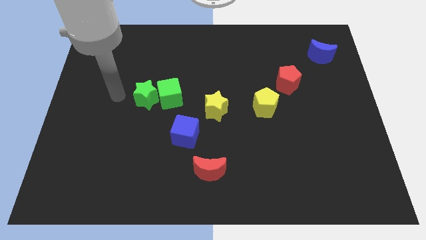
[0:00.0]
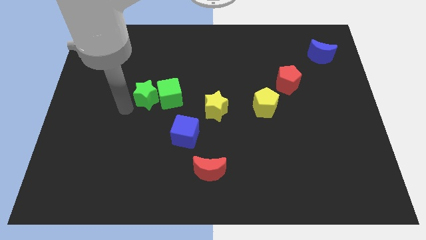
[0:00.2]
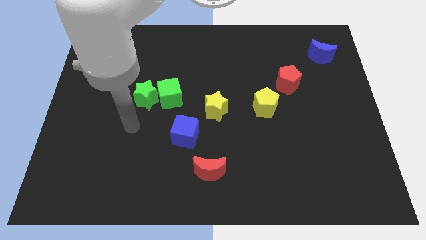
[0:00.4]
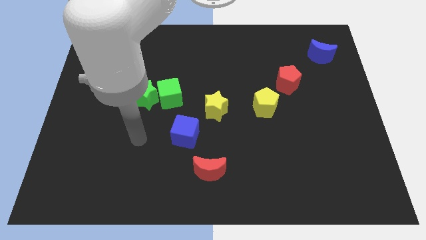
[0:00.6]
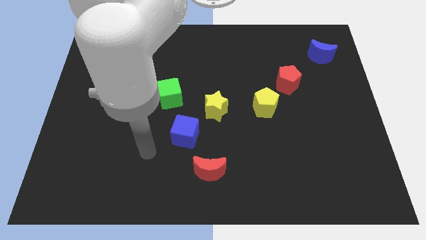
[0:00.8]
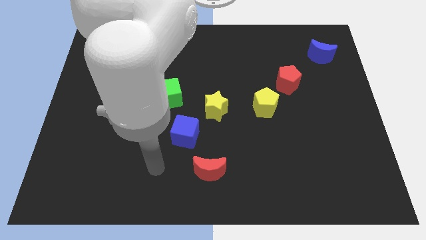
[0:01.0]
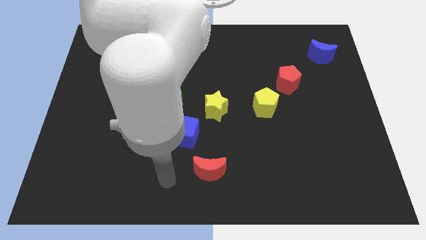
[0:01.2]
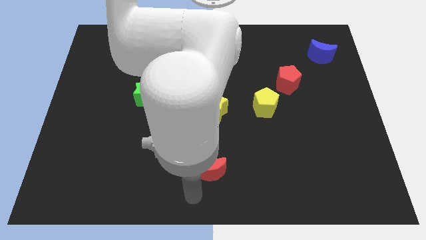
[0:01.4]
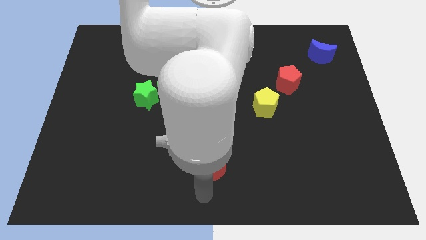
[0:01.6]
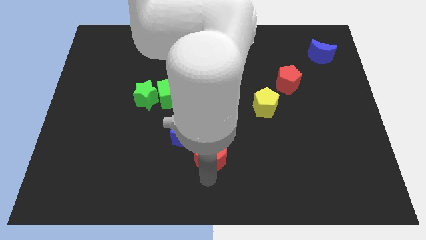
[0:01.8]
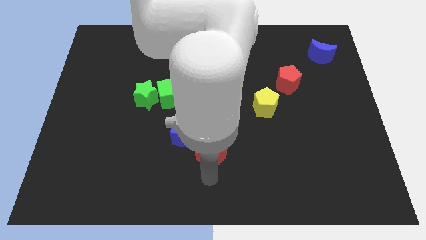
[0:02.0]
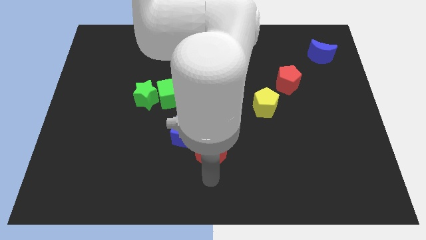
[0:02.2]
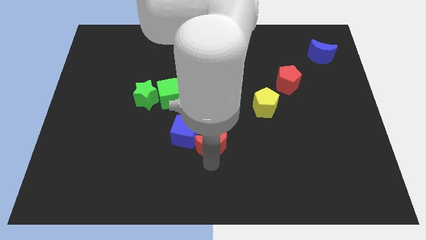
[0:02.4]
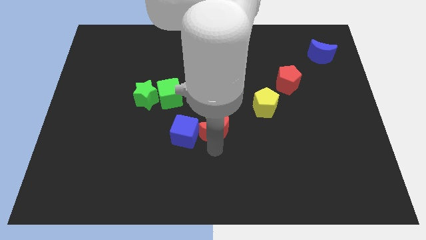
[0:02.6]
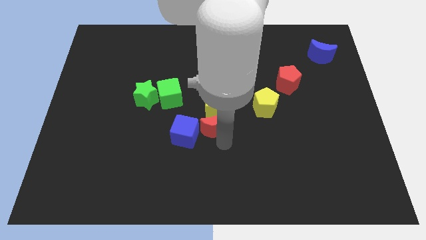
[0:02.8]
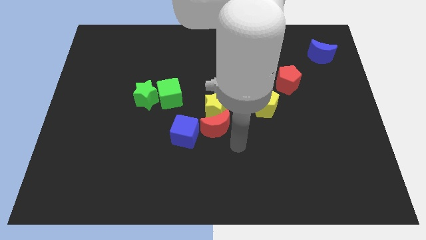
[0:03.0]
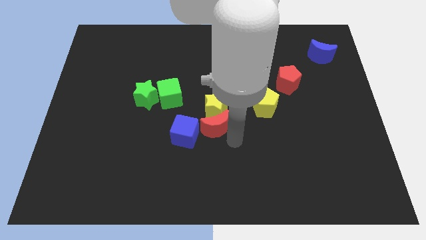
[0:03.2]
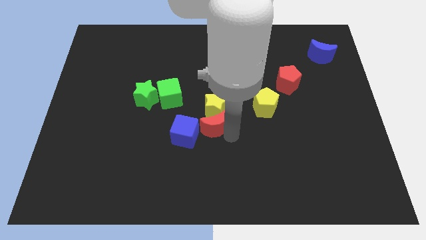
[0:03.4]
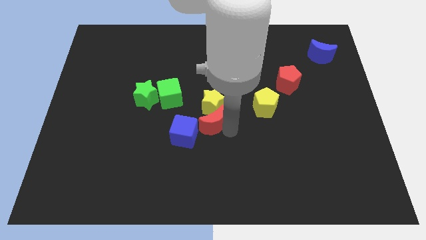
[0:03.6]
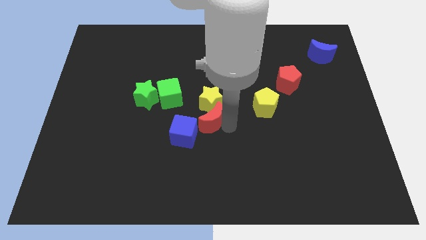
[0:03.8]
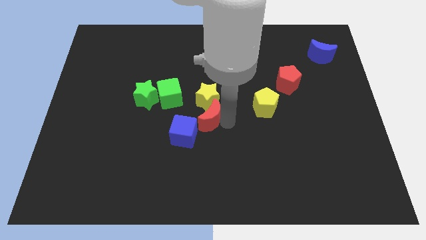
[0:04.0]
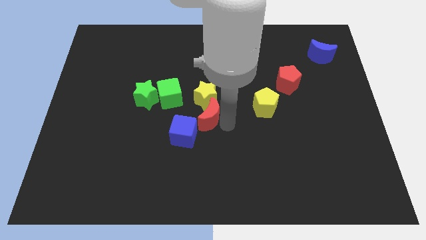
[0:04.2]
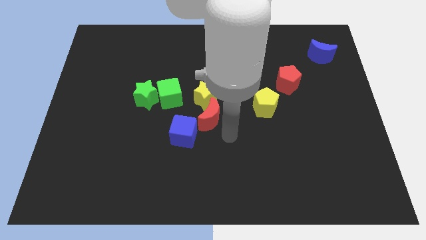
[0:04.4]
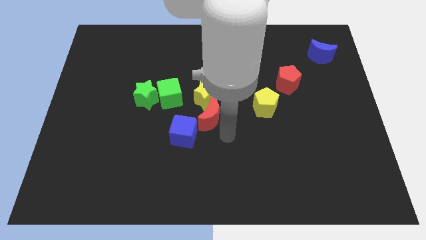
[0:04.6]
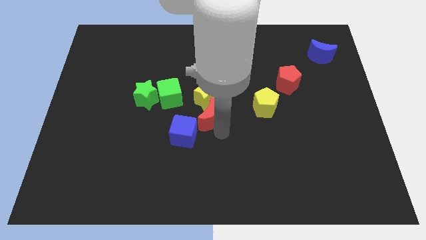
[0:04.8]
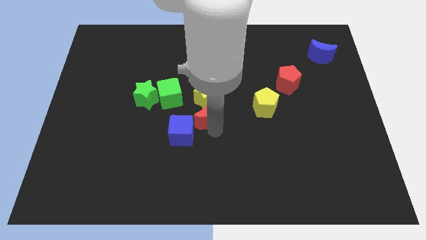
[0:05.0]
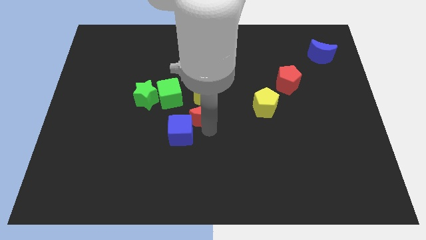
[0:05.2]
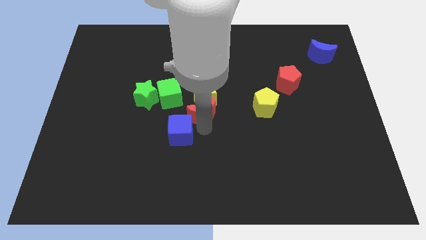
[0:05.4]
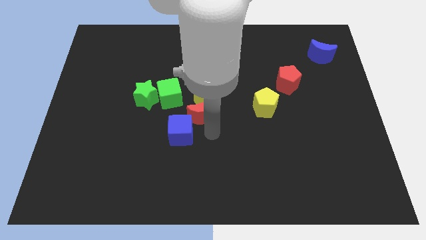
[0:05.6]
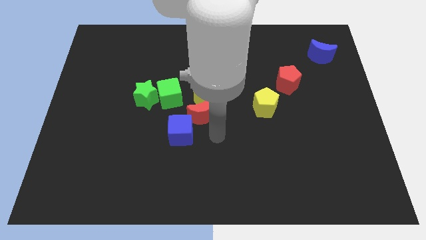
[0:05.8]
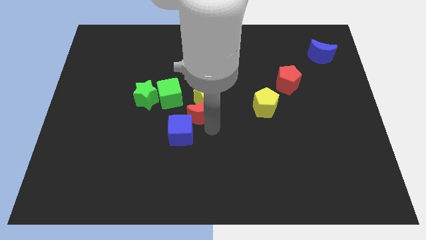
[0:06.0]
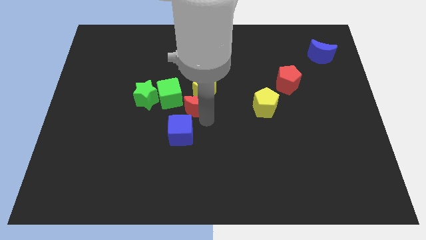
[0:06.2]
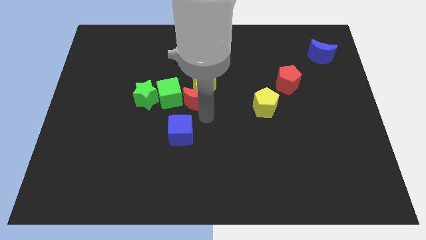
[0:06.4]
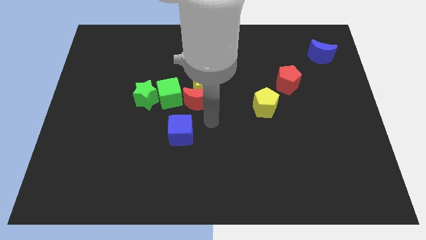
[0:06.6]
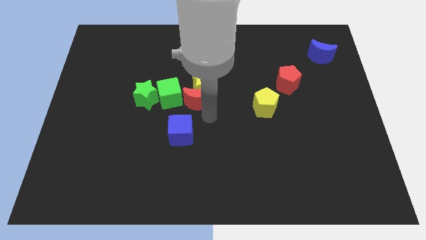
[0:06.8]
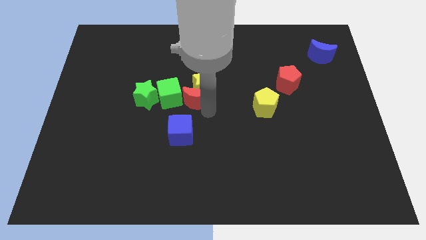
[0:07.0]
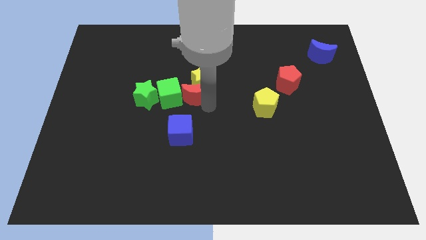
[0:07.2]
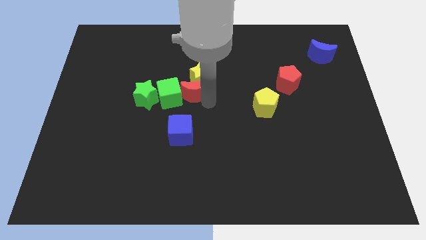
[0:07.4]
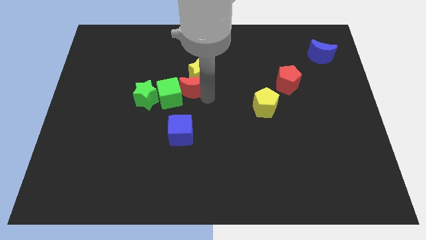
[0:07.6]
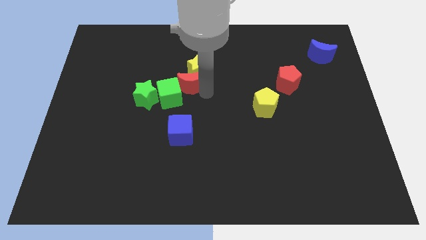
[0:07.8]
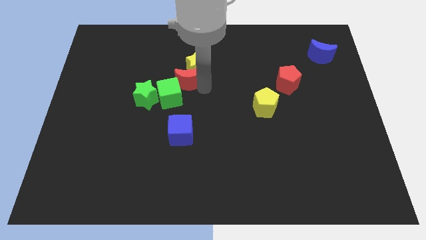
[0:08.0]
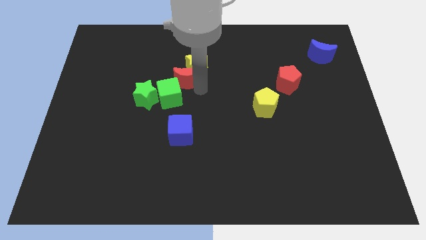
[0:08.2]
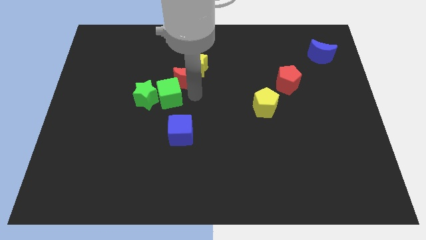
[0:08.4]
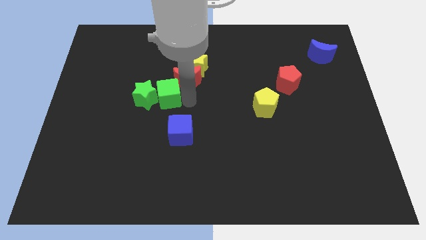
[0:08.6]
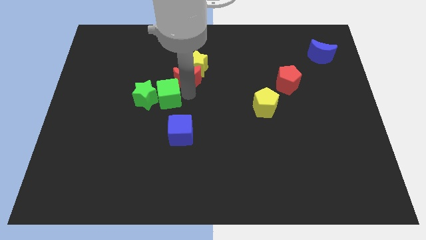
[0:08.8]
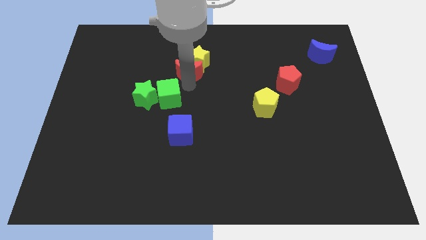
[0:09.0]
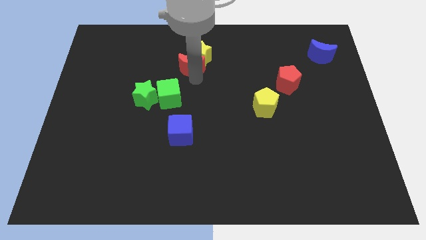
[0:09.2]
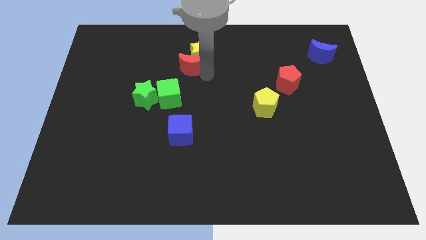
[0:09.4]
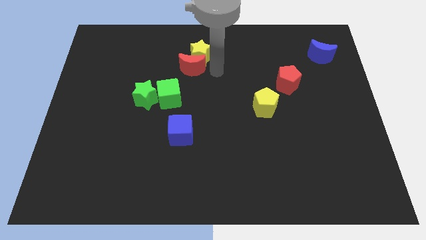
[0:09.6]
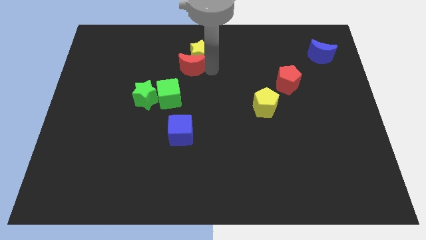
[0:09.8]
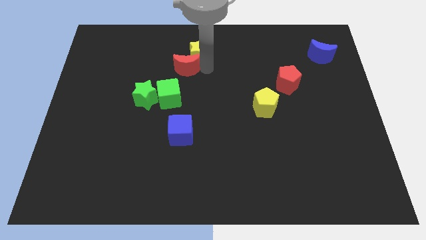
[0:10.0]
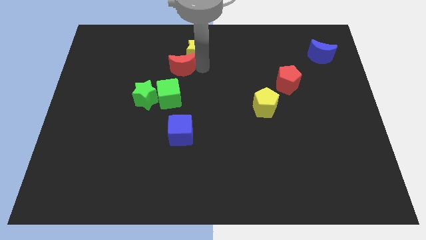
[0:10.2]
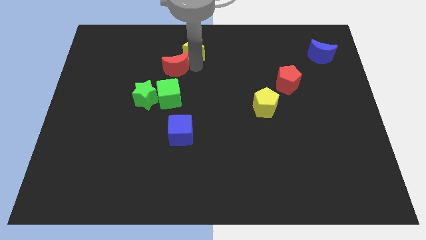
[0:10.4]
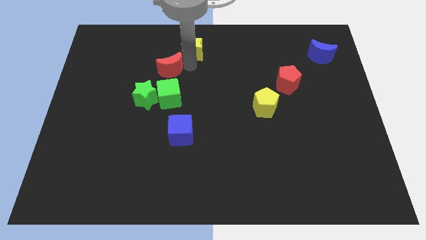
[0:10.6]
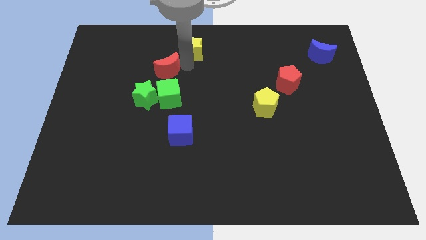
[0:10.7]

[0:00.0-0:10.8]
slide the red moon to the top side of the green star

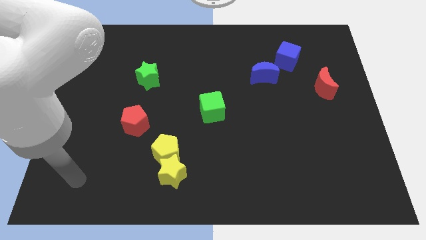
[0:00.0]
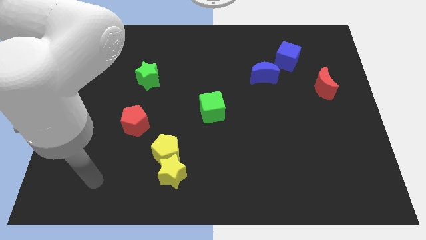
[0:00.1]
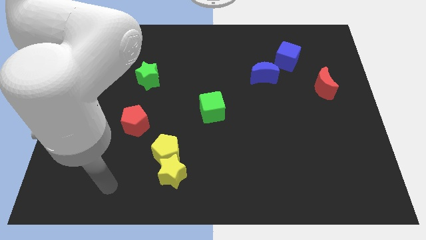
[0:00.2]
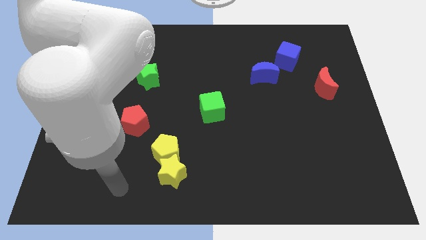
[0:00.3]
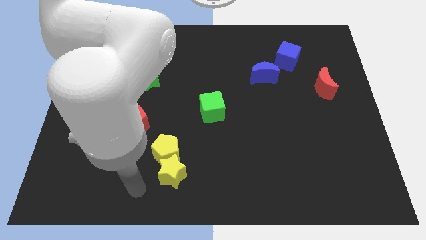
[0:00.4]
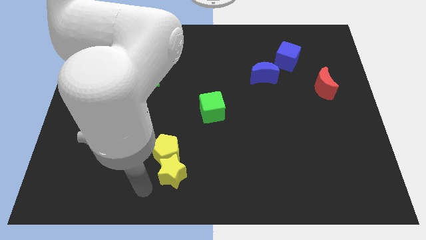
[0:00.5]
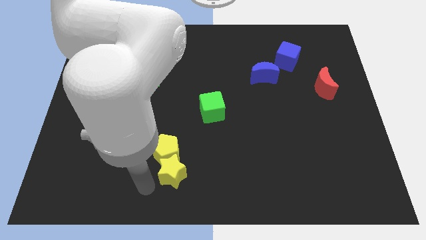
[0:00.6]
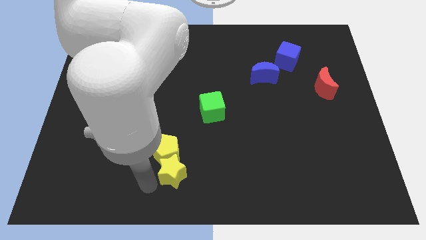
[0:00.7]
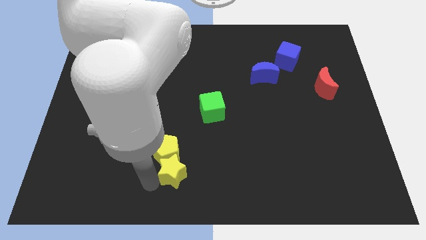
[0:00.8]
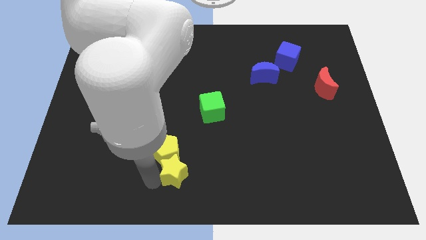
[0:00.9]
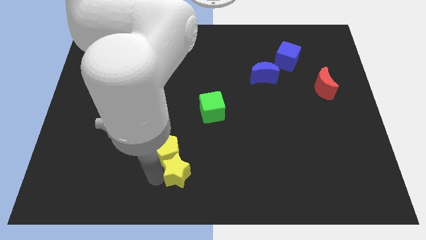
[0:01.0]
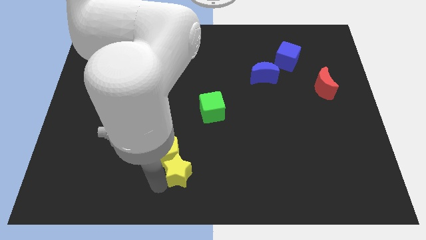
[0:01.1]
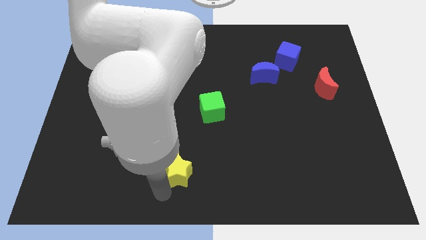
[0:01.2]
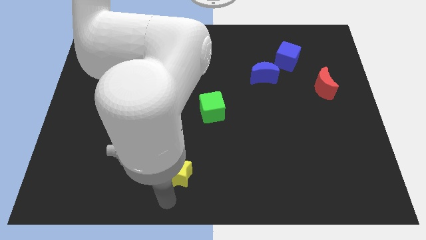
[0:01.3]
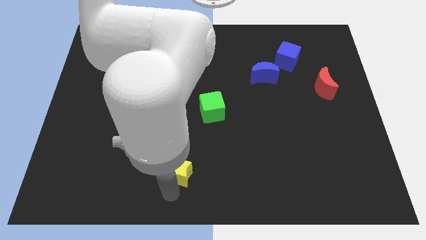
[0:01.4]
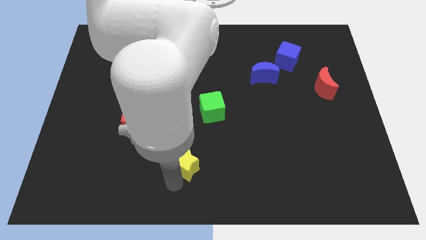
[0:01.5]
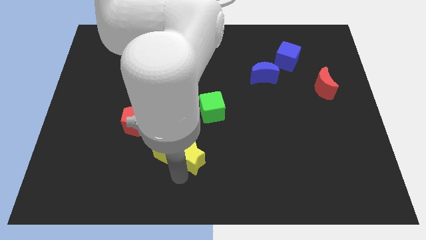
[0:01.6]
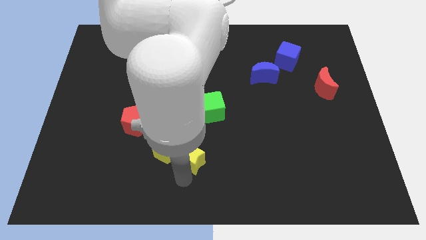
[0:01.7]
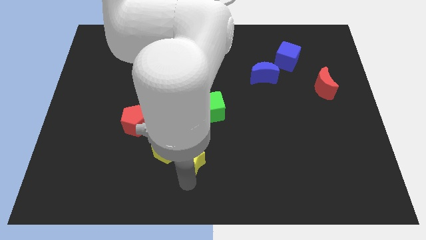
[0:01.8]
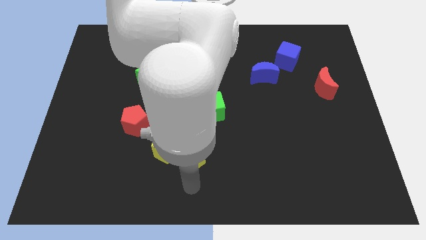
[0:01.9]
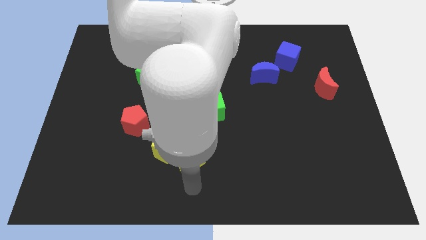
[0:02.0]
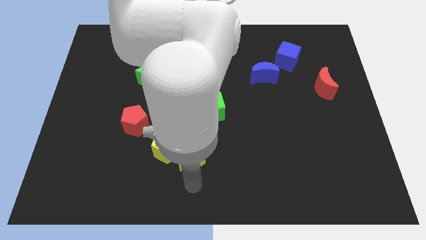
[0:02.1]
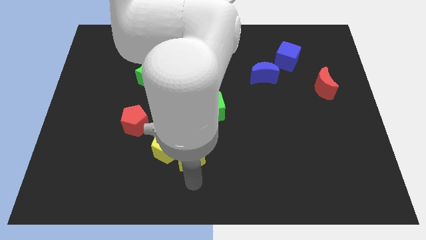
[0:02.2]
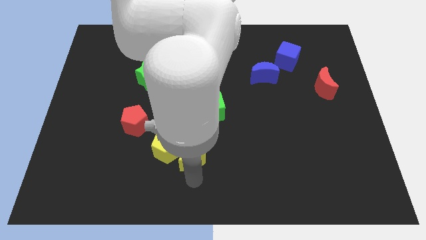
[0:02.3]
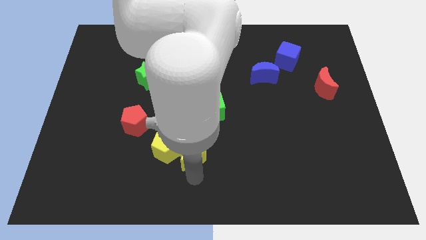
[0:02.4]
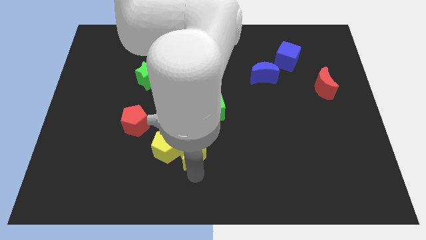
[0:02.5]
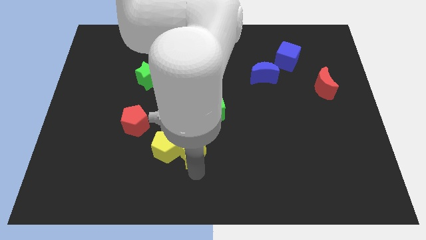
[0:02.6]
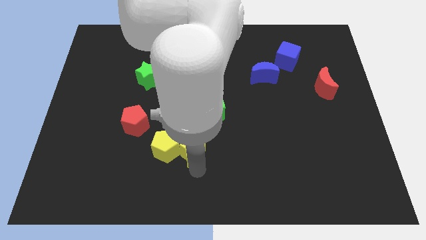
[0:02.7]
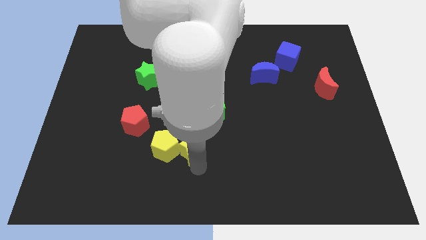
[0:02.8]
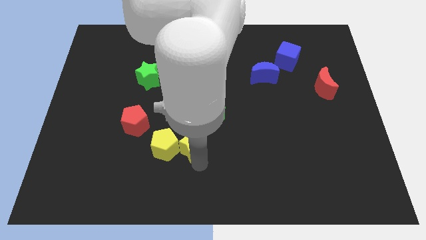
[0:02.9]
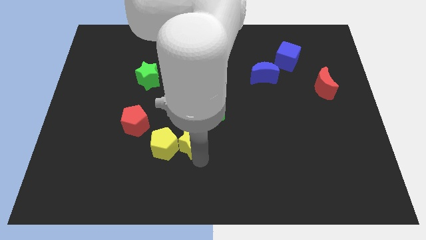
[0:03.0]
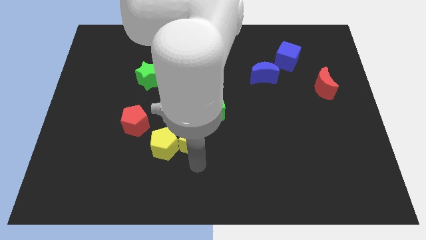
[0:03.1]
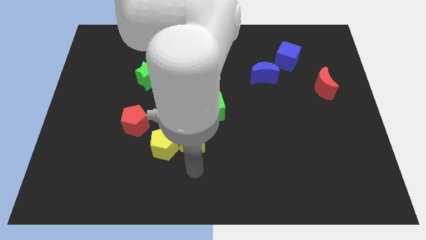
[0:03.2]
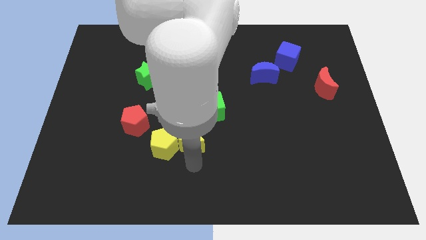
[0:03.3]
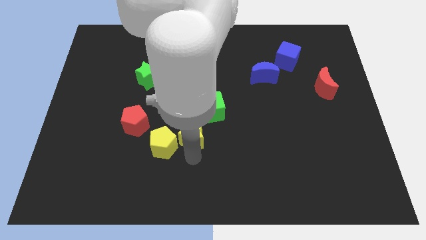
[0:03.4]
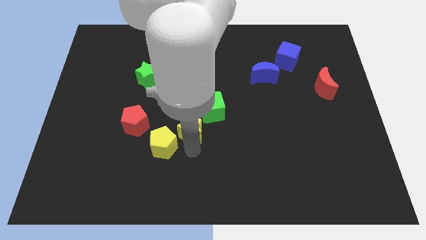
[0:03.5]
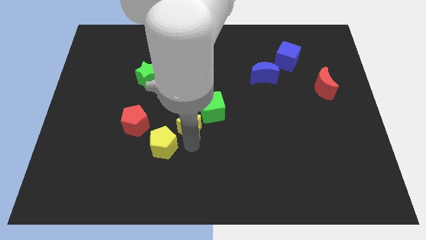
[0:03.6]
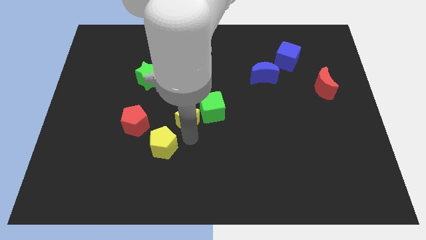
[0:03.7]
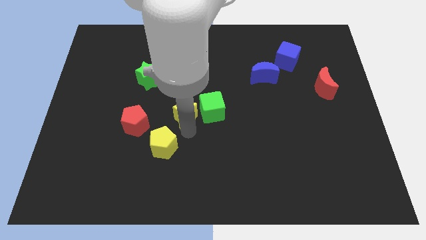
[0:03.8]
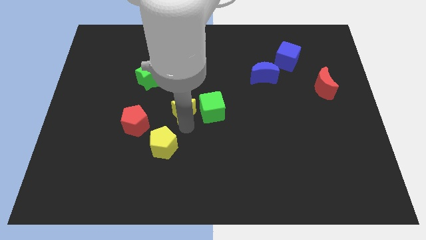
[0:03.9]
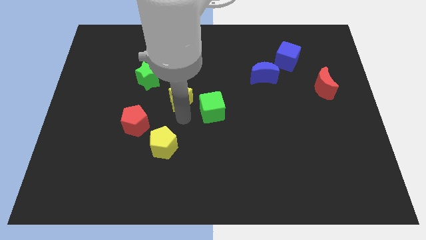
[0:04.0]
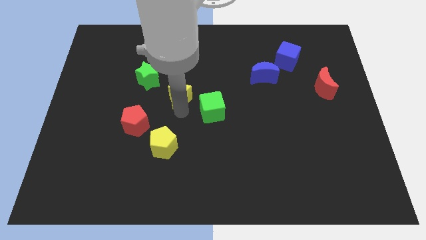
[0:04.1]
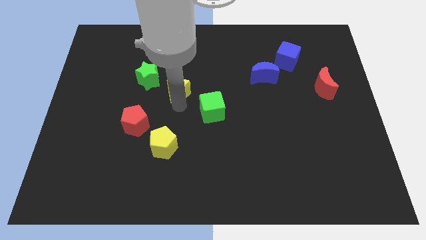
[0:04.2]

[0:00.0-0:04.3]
move the yellow star to the right side of the green star
